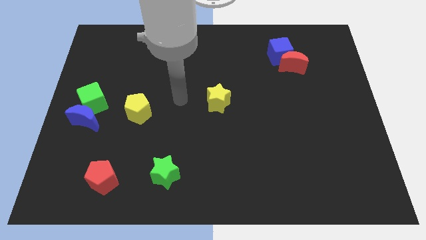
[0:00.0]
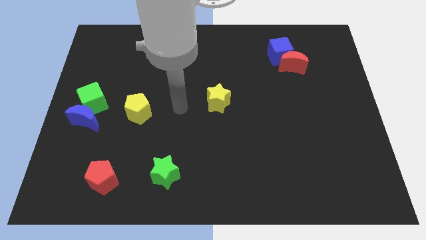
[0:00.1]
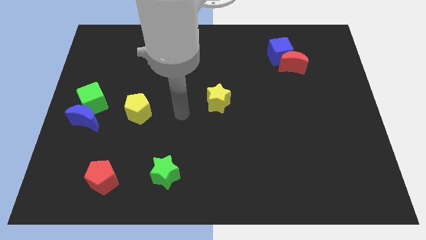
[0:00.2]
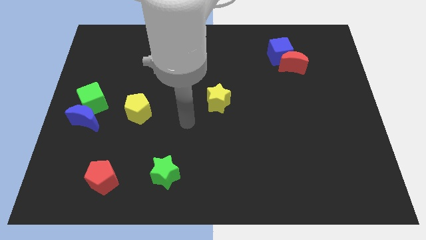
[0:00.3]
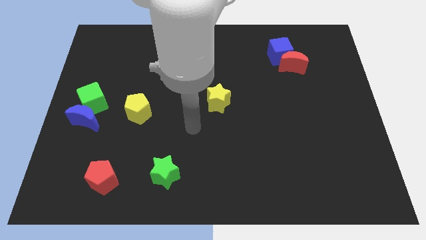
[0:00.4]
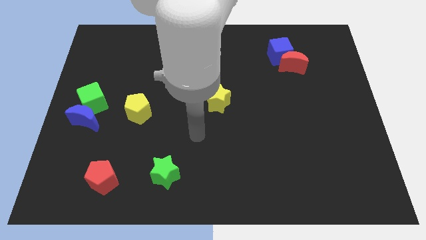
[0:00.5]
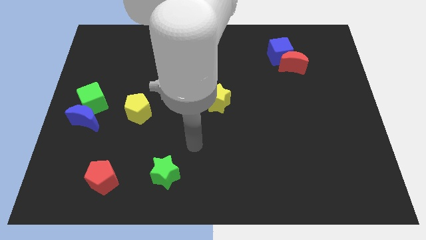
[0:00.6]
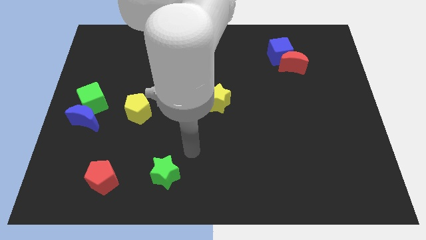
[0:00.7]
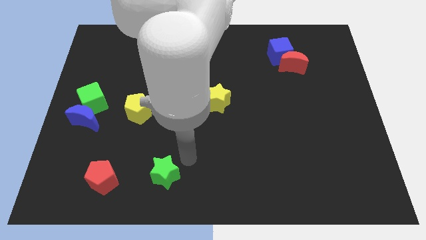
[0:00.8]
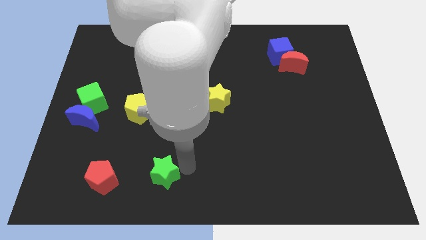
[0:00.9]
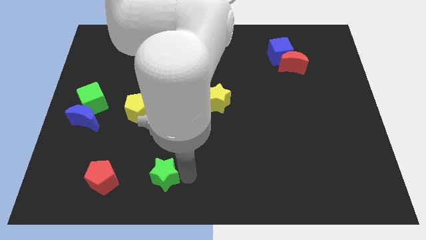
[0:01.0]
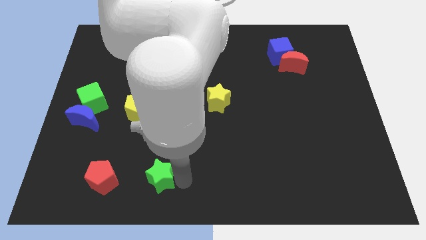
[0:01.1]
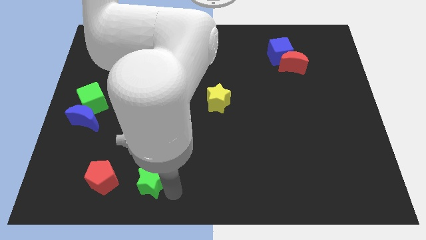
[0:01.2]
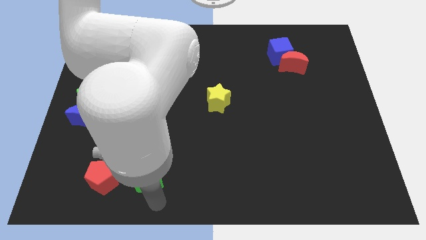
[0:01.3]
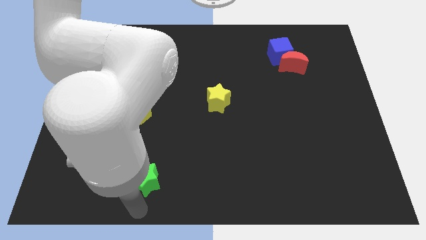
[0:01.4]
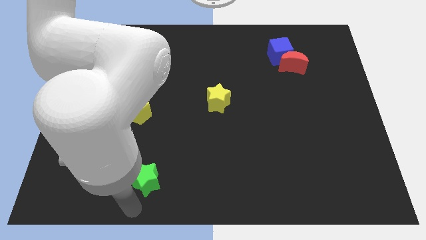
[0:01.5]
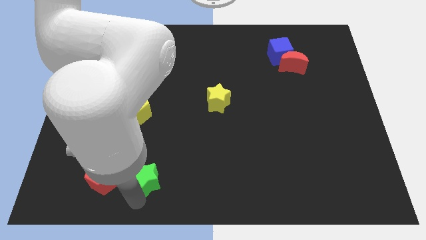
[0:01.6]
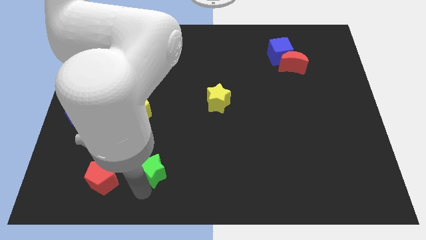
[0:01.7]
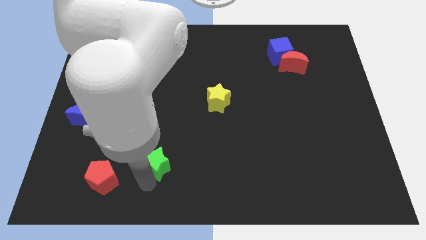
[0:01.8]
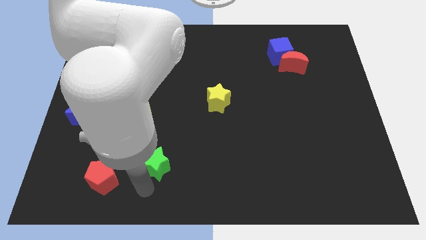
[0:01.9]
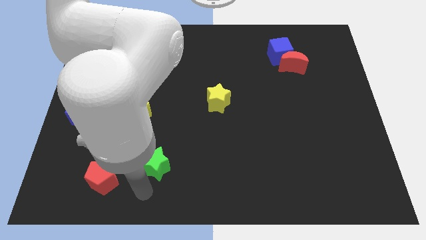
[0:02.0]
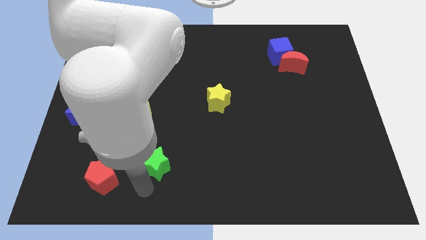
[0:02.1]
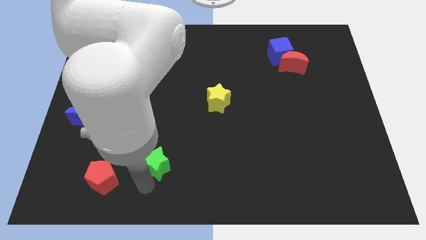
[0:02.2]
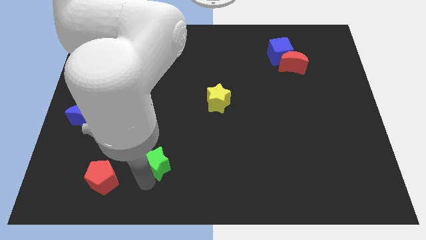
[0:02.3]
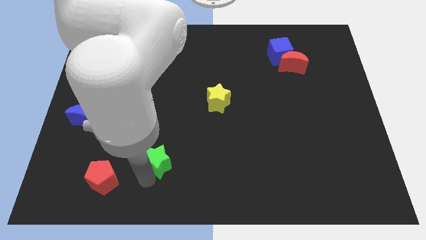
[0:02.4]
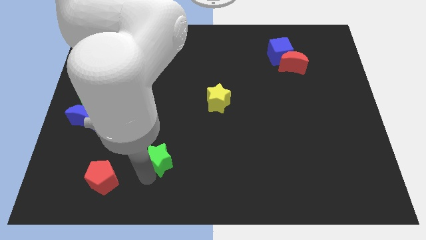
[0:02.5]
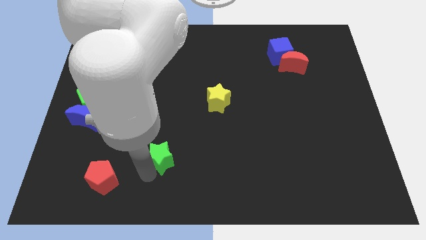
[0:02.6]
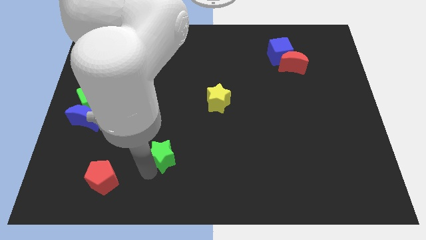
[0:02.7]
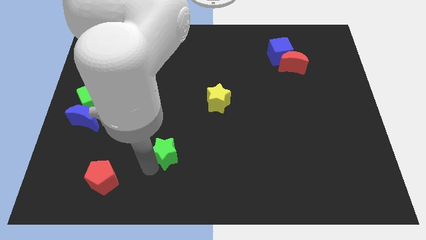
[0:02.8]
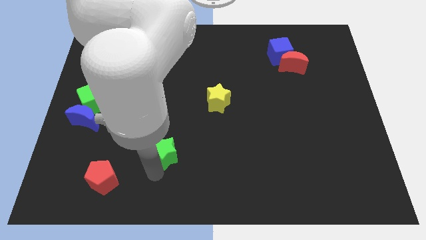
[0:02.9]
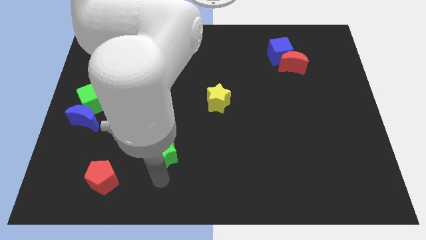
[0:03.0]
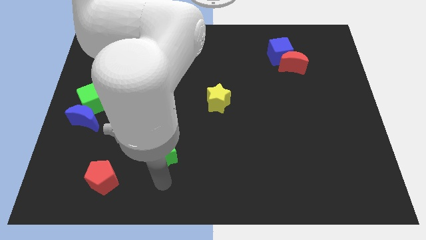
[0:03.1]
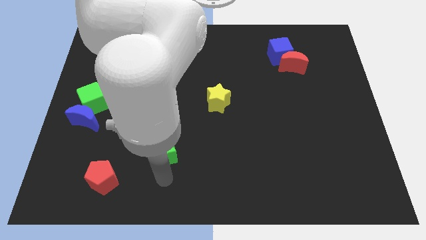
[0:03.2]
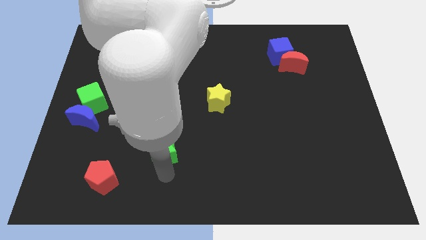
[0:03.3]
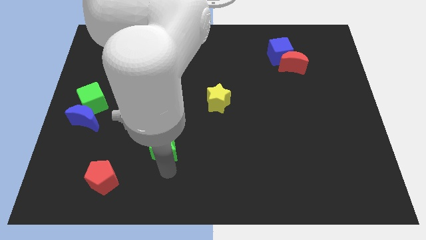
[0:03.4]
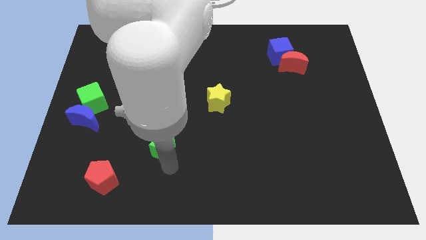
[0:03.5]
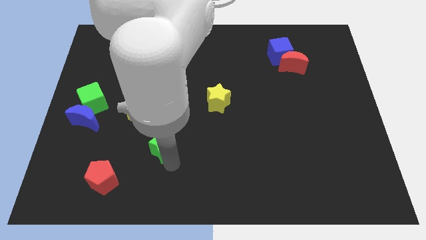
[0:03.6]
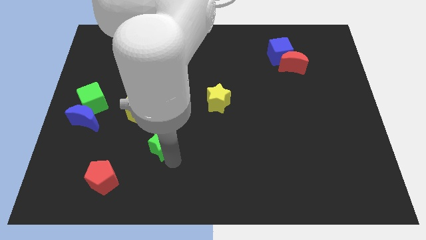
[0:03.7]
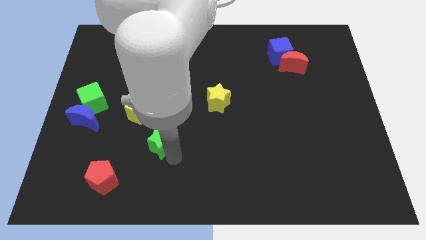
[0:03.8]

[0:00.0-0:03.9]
move the green star slightly upwards

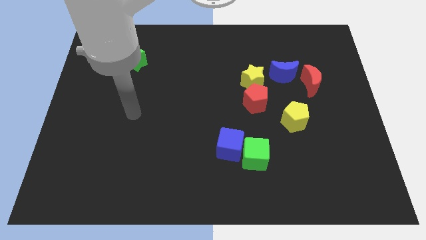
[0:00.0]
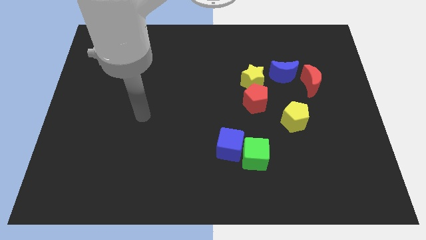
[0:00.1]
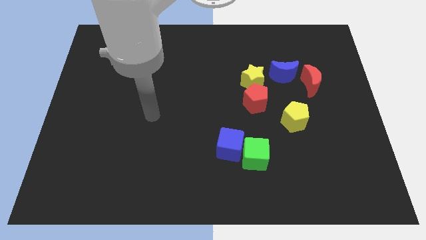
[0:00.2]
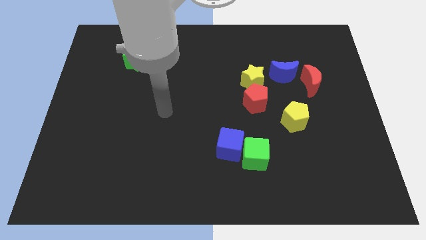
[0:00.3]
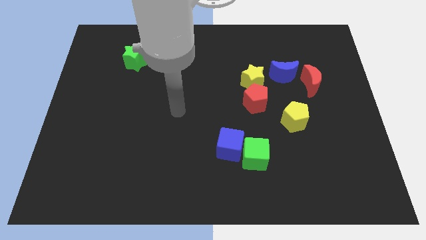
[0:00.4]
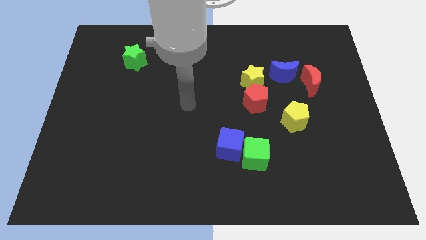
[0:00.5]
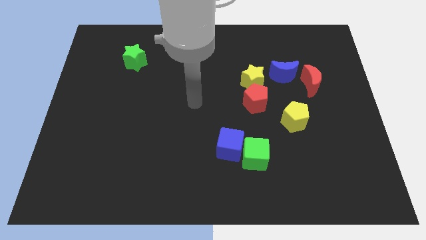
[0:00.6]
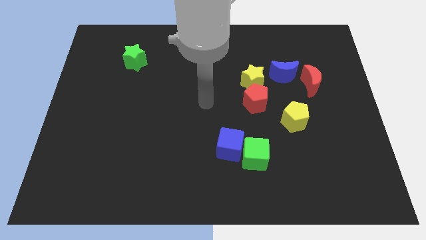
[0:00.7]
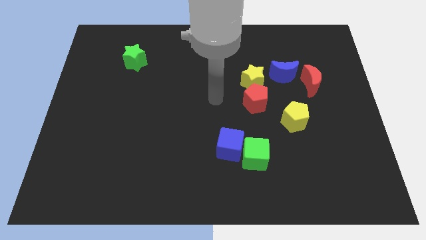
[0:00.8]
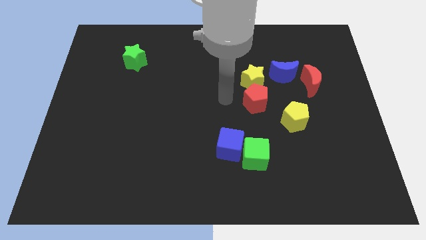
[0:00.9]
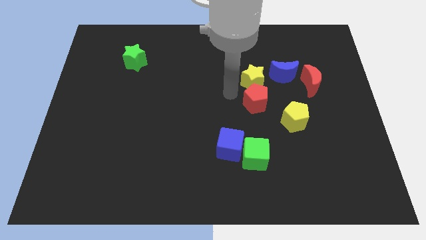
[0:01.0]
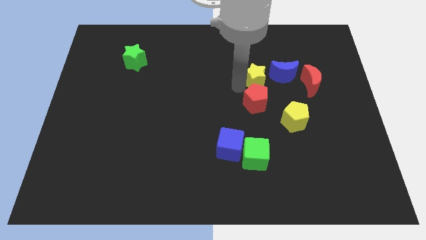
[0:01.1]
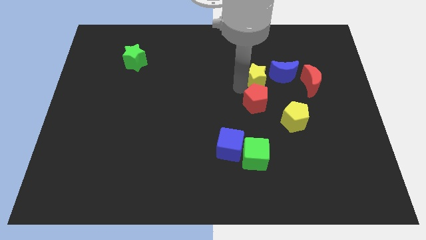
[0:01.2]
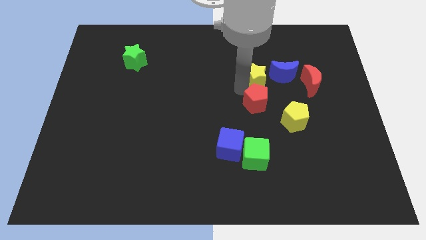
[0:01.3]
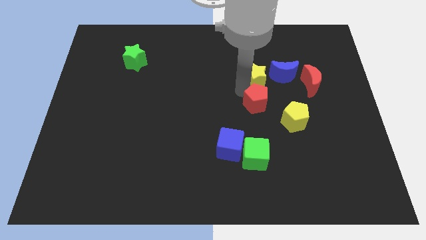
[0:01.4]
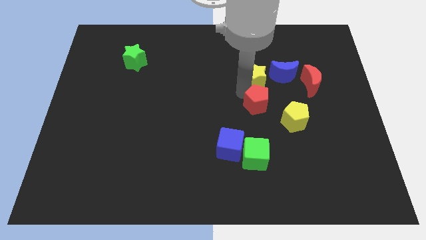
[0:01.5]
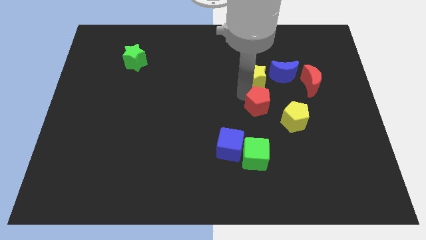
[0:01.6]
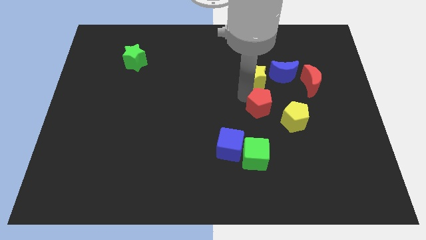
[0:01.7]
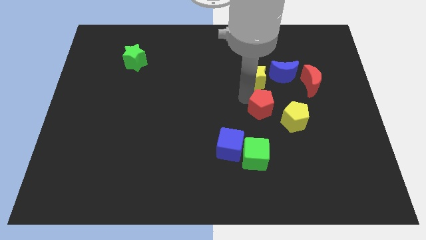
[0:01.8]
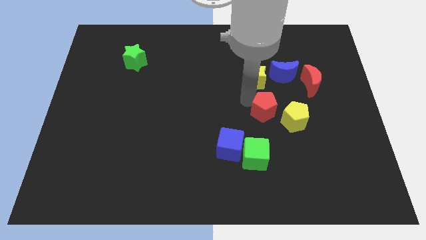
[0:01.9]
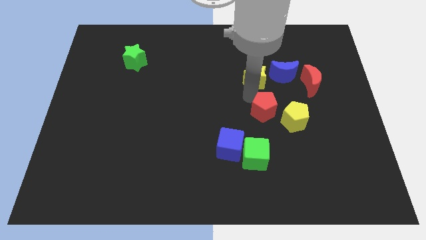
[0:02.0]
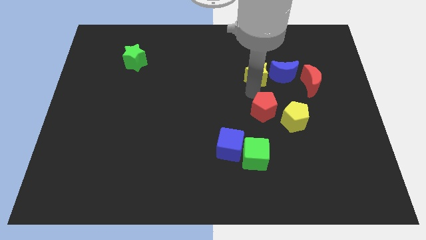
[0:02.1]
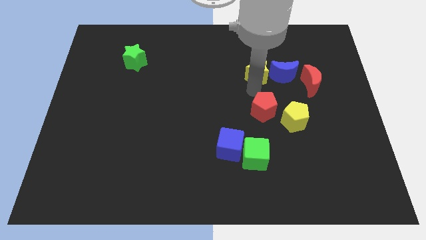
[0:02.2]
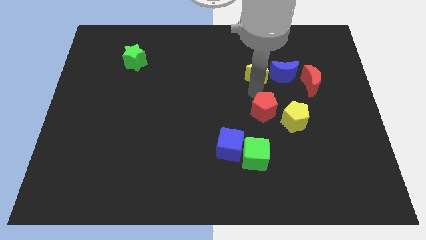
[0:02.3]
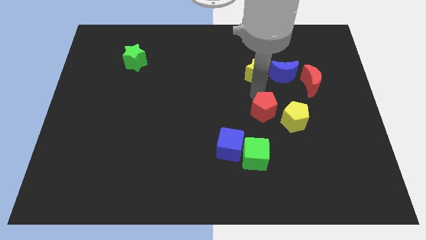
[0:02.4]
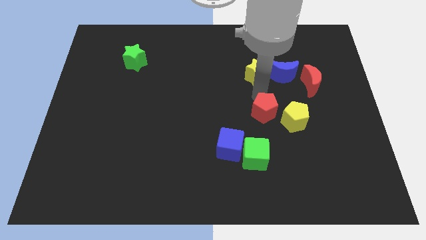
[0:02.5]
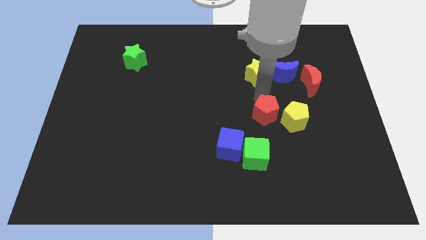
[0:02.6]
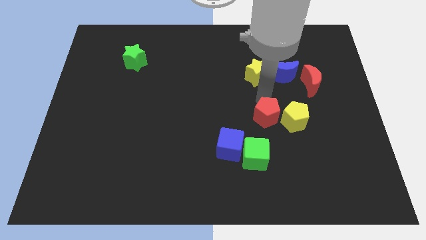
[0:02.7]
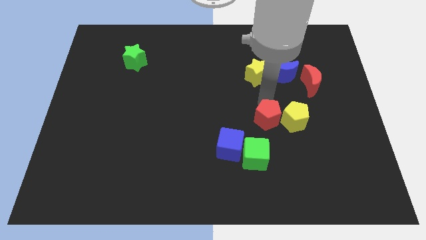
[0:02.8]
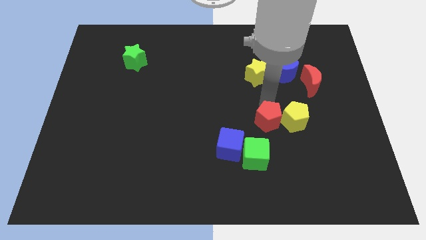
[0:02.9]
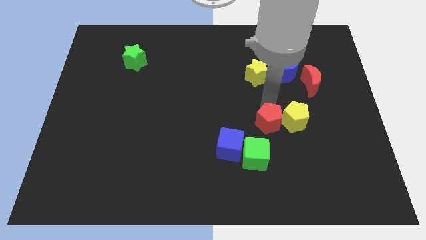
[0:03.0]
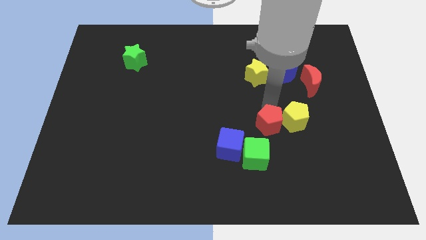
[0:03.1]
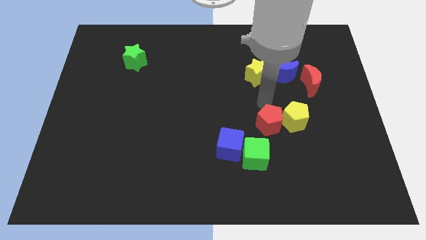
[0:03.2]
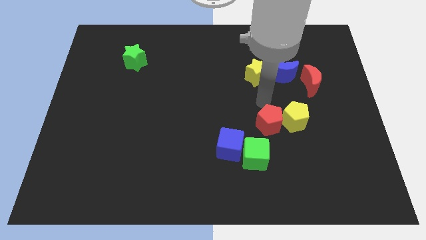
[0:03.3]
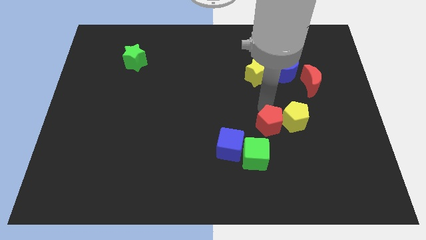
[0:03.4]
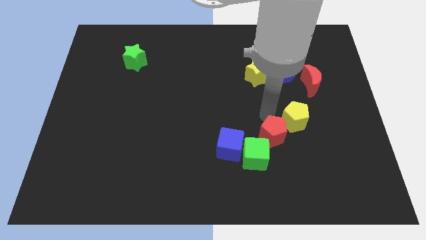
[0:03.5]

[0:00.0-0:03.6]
slightly move the red pentagon down

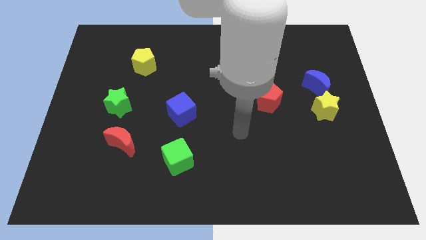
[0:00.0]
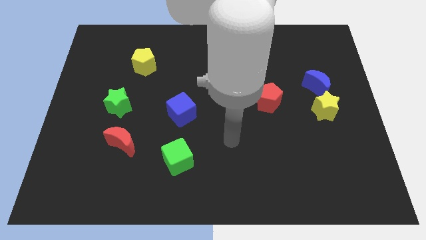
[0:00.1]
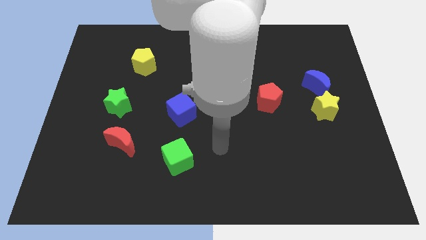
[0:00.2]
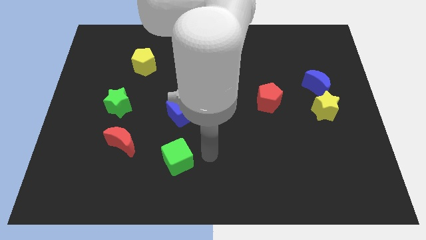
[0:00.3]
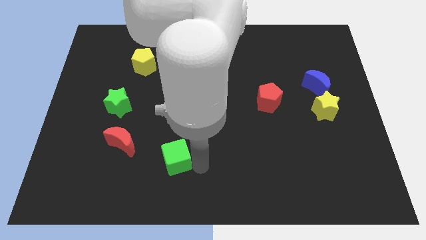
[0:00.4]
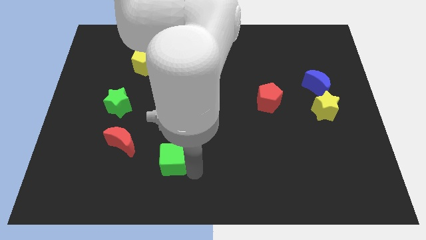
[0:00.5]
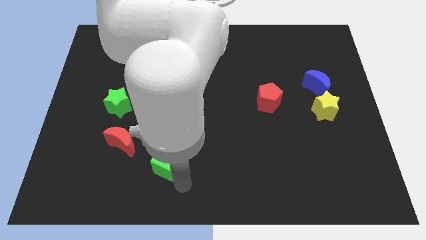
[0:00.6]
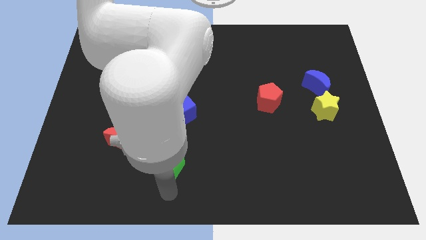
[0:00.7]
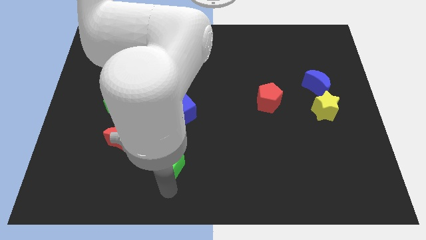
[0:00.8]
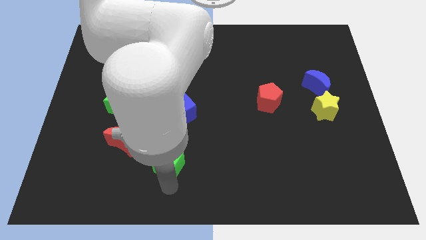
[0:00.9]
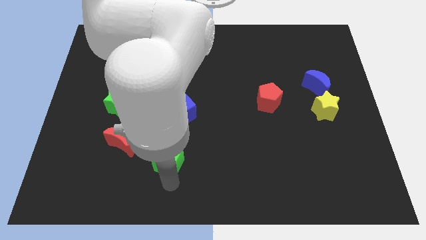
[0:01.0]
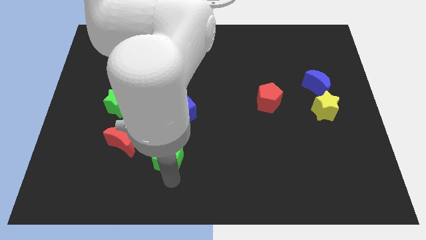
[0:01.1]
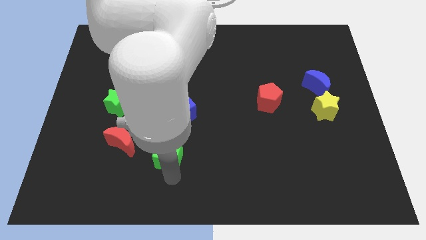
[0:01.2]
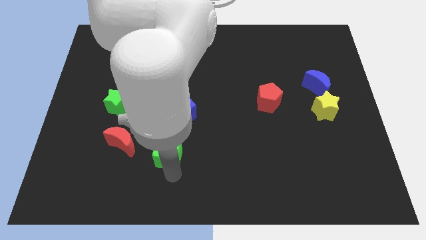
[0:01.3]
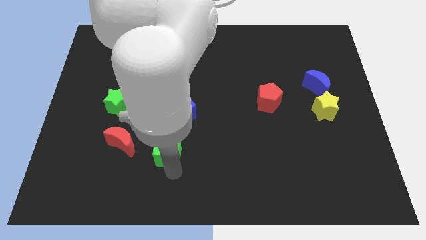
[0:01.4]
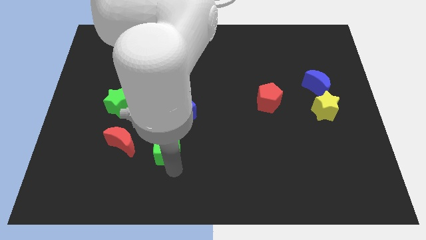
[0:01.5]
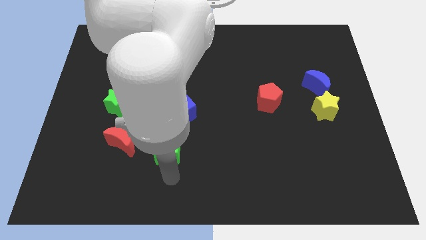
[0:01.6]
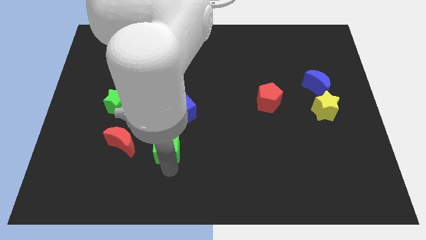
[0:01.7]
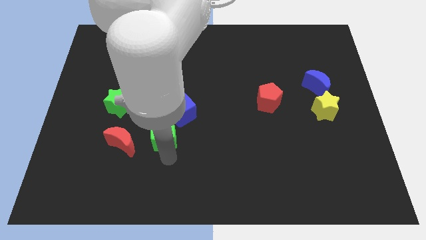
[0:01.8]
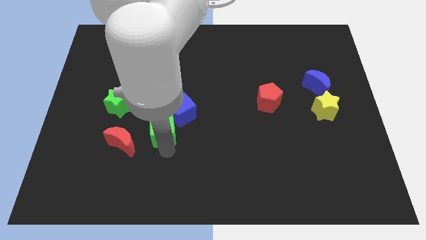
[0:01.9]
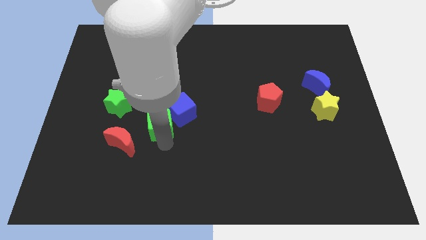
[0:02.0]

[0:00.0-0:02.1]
slide the green cube upwards a little
